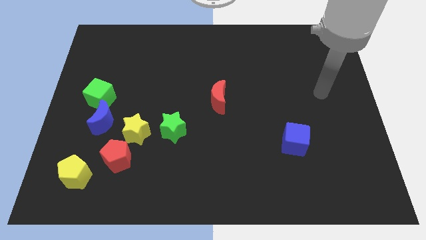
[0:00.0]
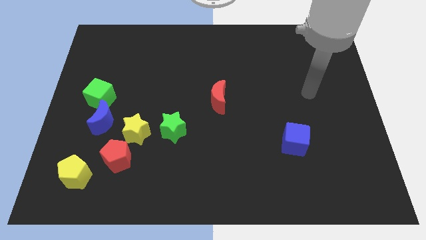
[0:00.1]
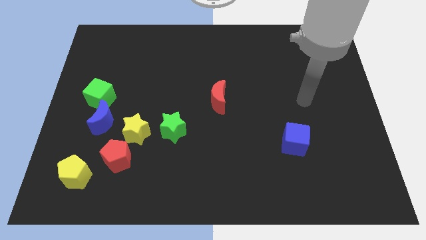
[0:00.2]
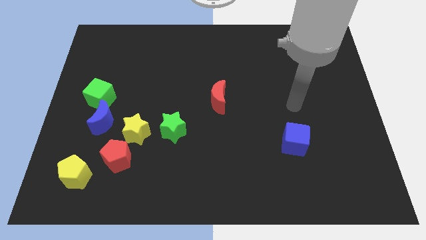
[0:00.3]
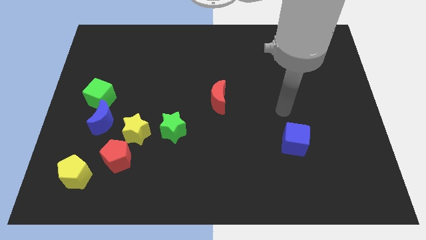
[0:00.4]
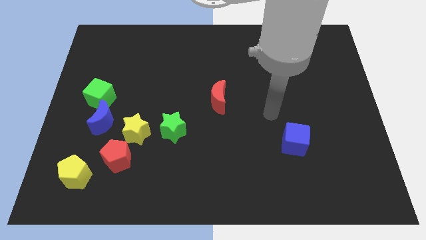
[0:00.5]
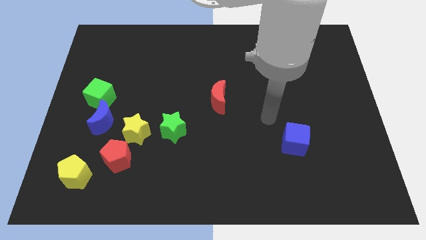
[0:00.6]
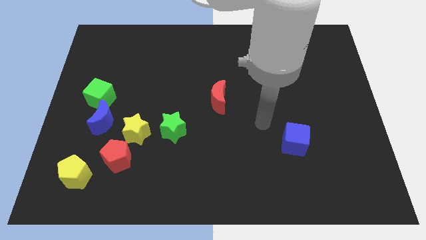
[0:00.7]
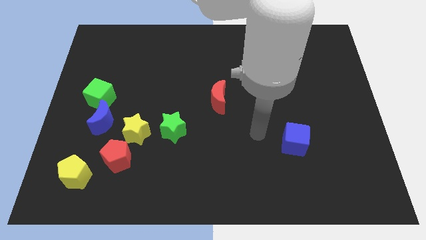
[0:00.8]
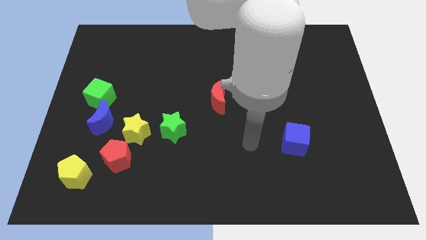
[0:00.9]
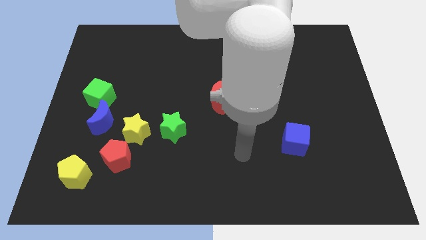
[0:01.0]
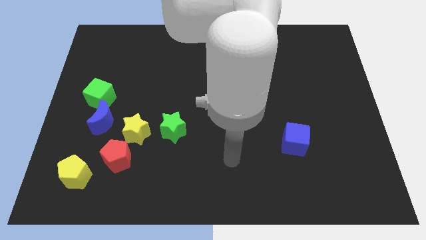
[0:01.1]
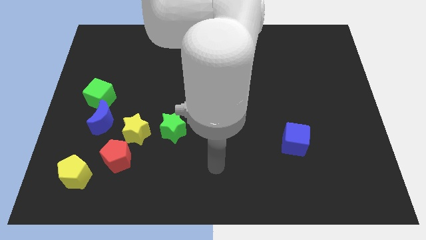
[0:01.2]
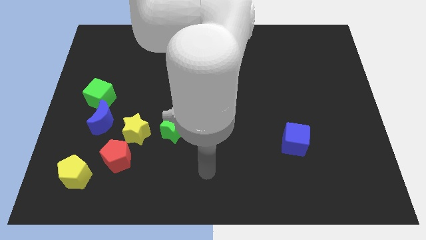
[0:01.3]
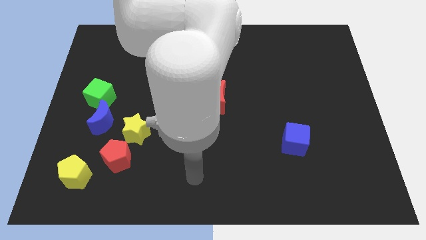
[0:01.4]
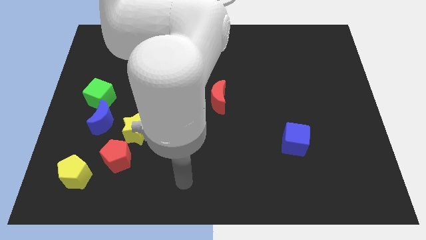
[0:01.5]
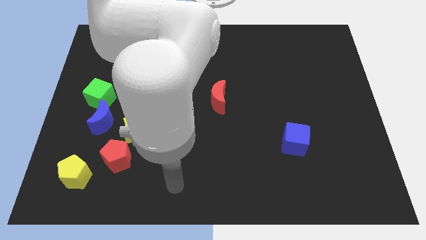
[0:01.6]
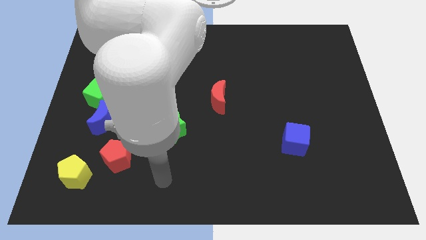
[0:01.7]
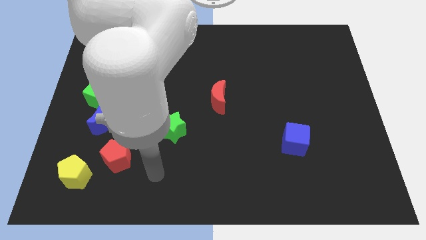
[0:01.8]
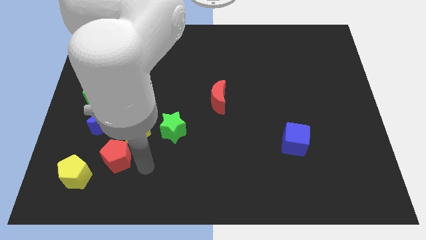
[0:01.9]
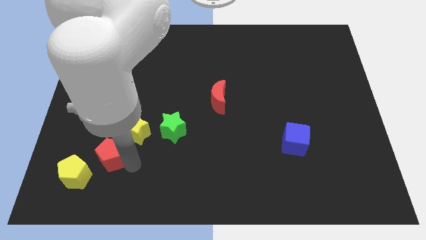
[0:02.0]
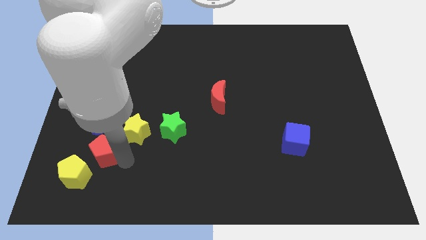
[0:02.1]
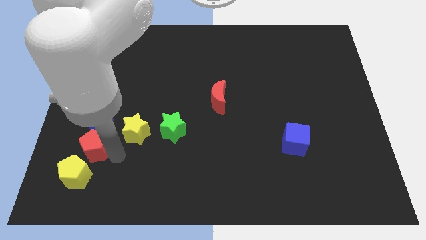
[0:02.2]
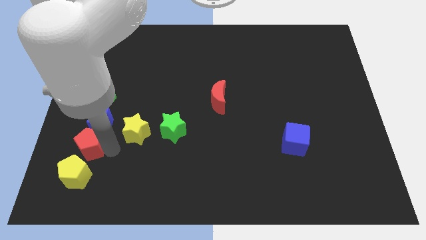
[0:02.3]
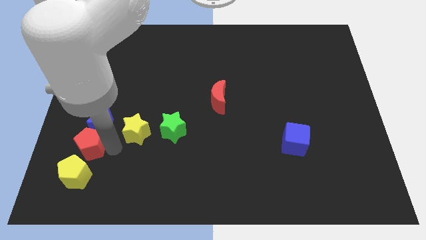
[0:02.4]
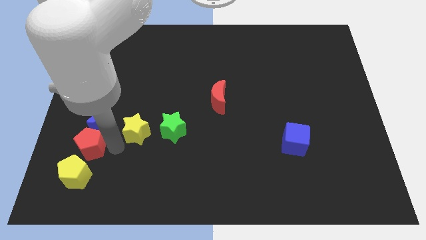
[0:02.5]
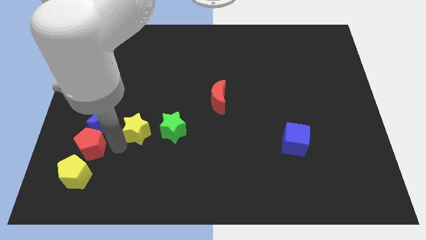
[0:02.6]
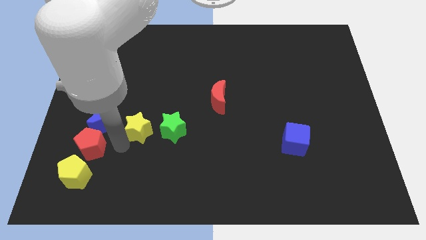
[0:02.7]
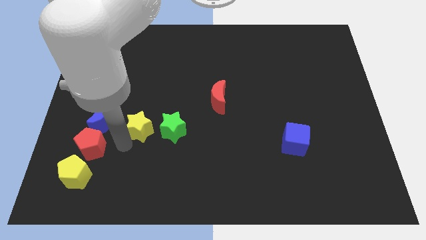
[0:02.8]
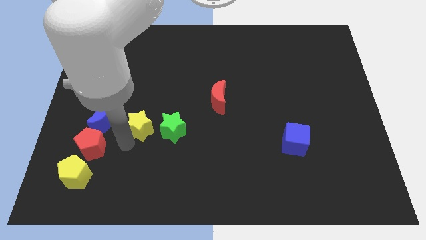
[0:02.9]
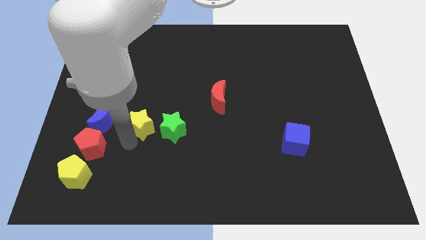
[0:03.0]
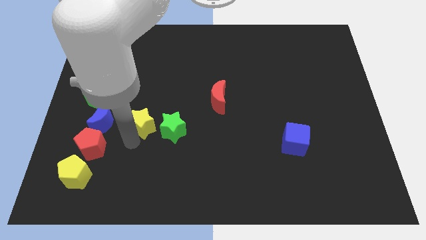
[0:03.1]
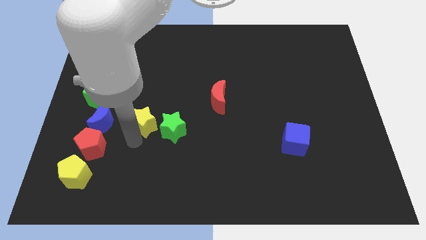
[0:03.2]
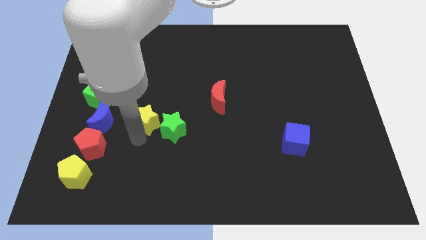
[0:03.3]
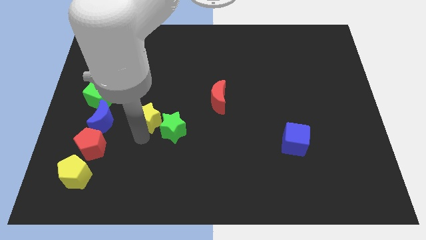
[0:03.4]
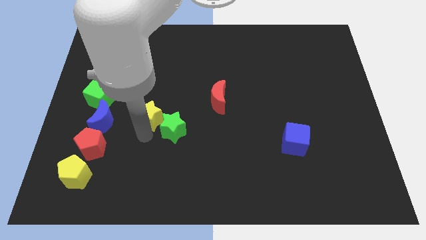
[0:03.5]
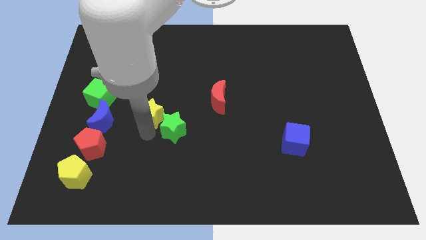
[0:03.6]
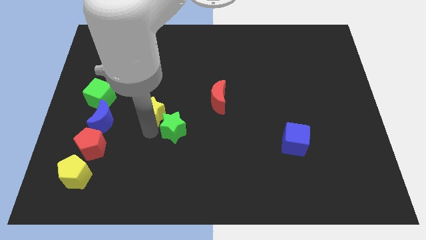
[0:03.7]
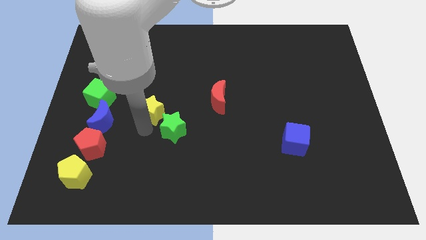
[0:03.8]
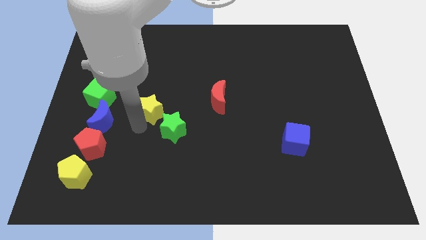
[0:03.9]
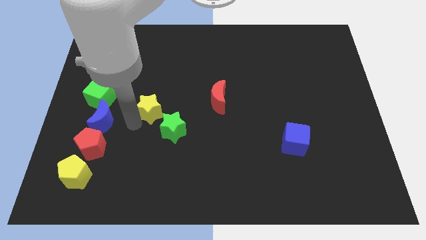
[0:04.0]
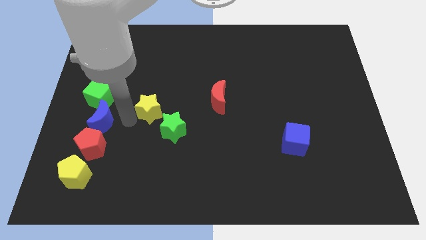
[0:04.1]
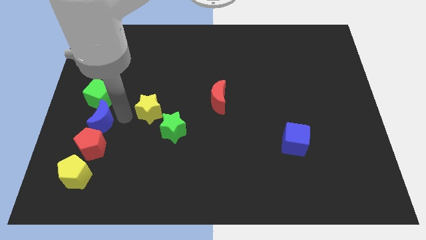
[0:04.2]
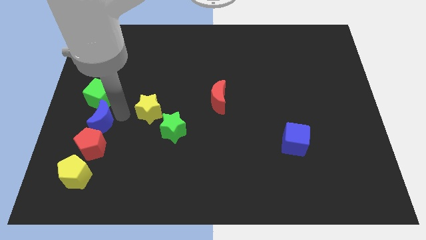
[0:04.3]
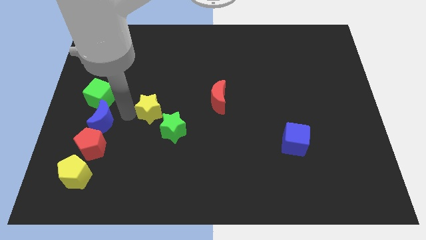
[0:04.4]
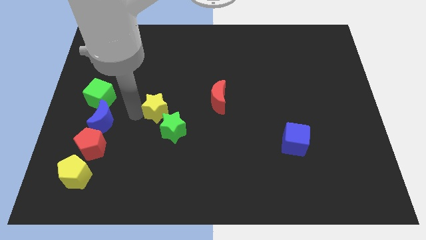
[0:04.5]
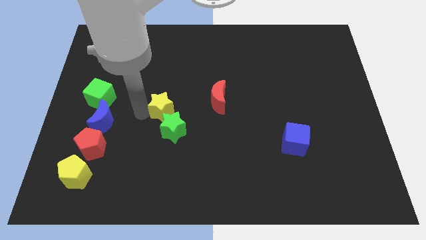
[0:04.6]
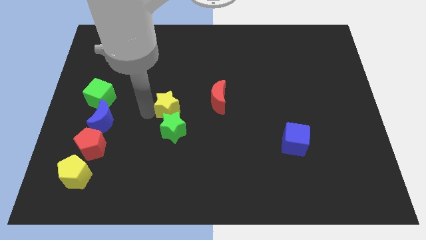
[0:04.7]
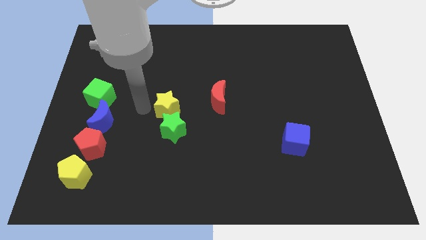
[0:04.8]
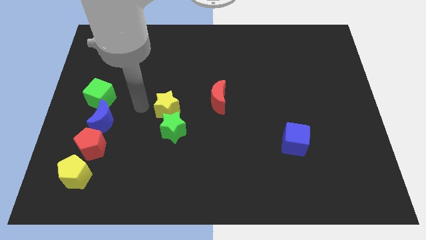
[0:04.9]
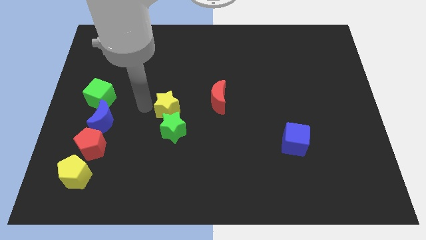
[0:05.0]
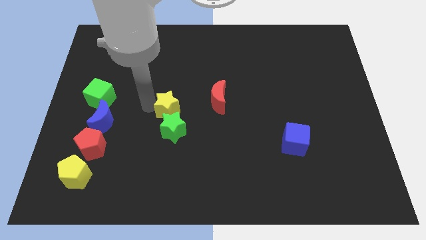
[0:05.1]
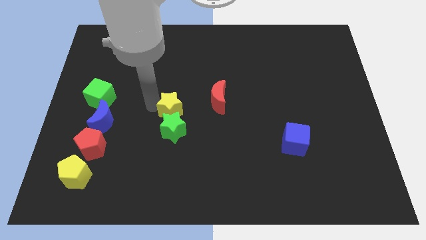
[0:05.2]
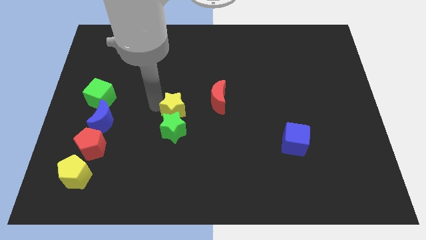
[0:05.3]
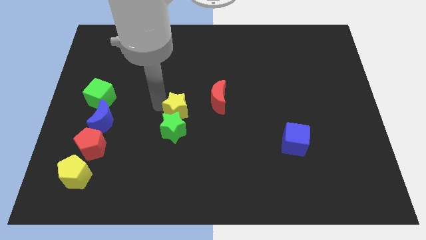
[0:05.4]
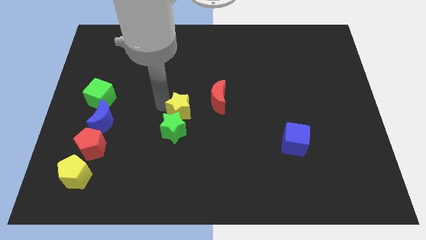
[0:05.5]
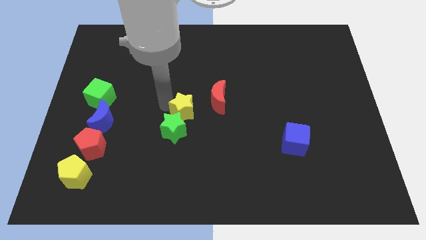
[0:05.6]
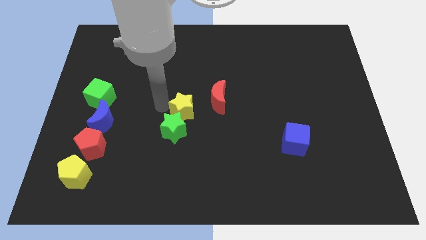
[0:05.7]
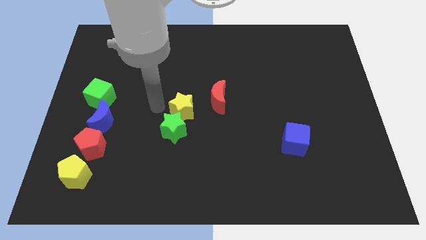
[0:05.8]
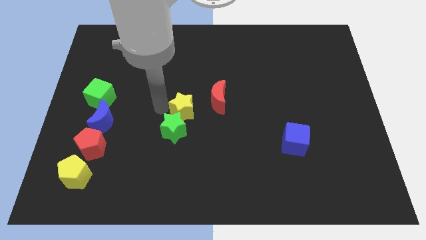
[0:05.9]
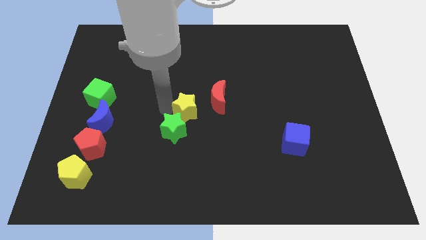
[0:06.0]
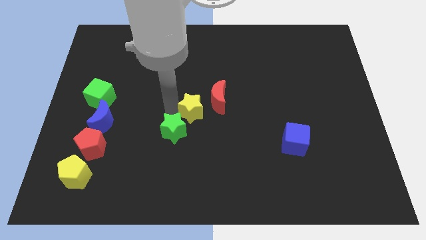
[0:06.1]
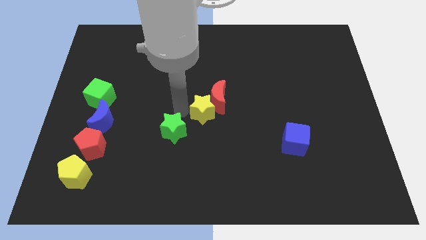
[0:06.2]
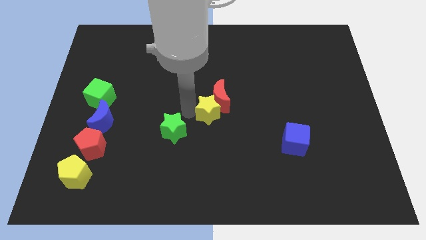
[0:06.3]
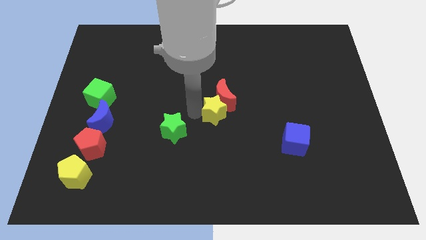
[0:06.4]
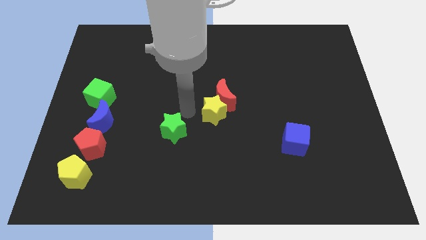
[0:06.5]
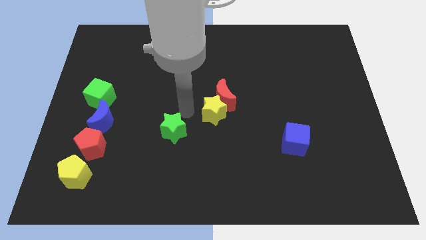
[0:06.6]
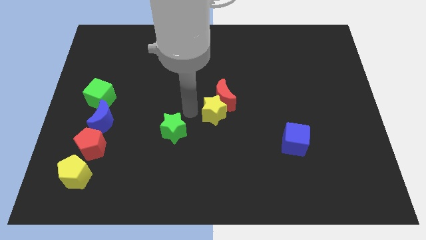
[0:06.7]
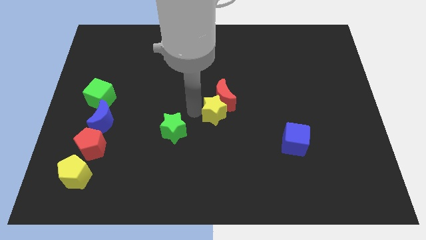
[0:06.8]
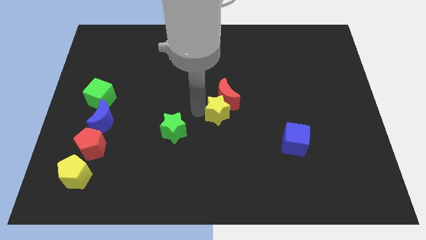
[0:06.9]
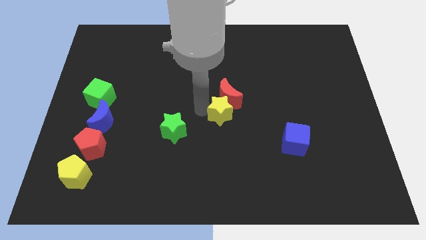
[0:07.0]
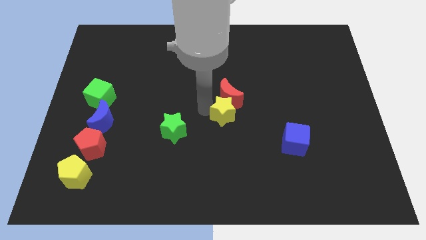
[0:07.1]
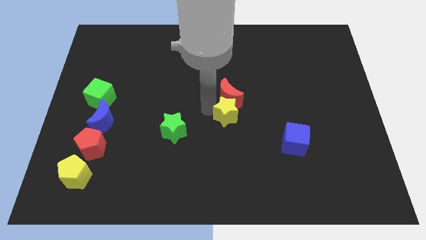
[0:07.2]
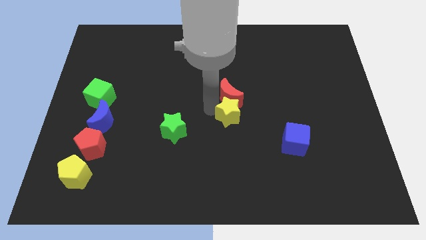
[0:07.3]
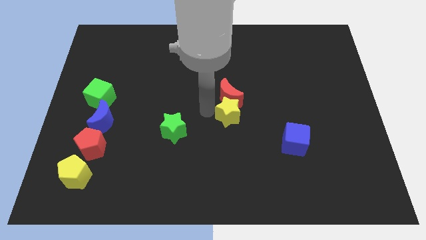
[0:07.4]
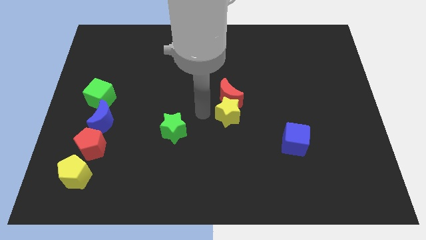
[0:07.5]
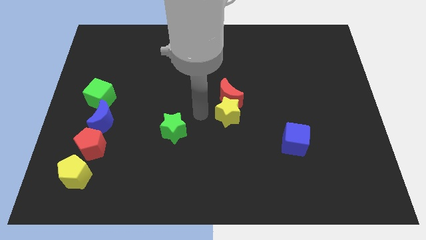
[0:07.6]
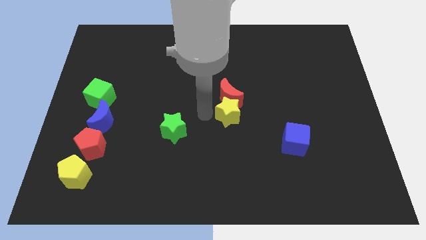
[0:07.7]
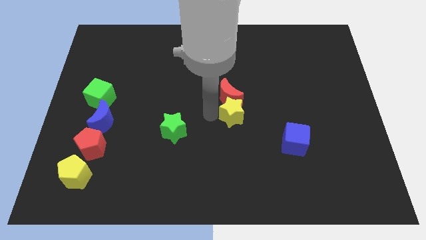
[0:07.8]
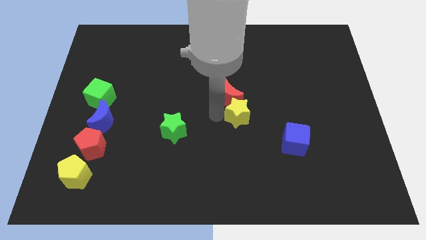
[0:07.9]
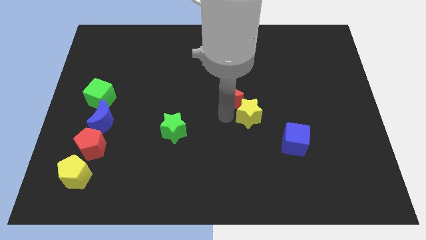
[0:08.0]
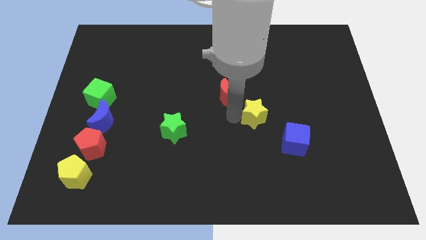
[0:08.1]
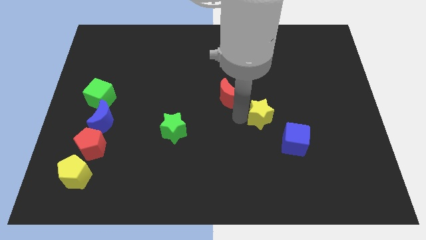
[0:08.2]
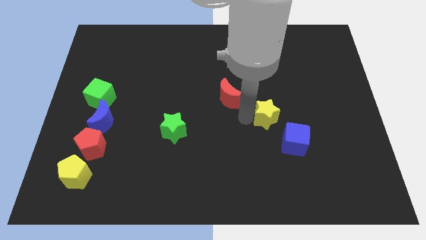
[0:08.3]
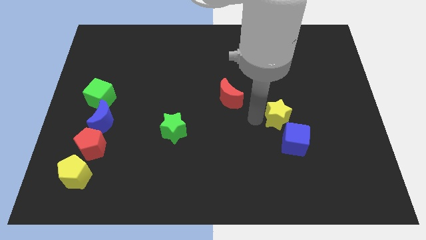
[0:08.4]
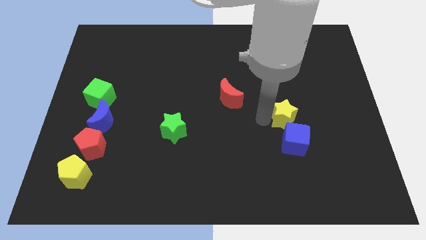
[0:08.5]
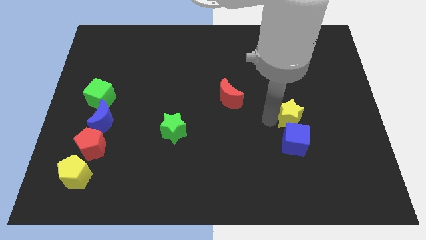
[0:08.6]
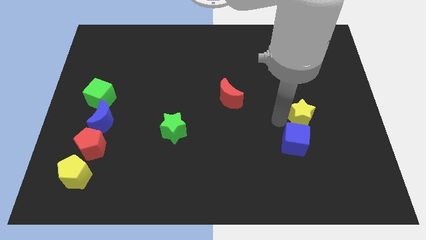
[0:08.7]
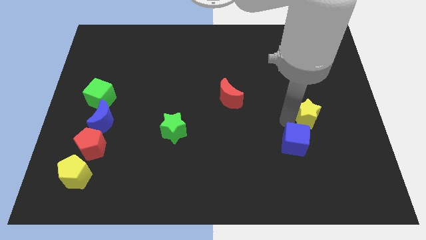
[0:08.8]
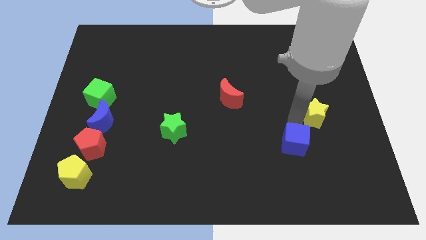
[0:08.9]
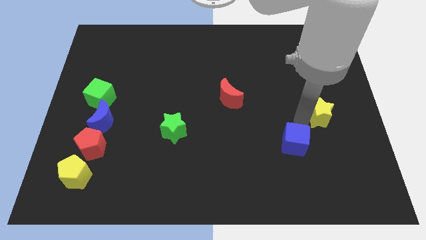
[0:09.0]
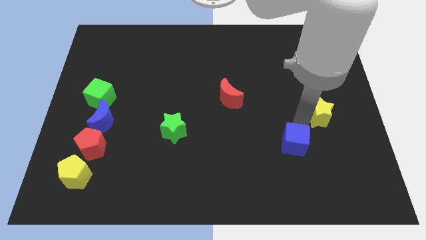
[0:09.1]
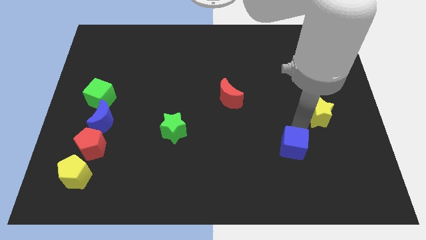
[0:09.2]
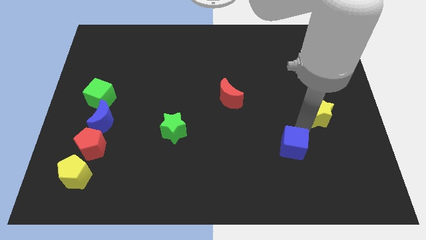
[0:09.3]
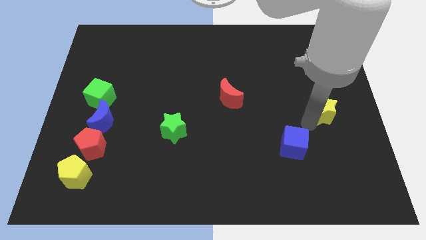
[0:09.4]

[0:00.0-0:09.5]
push the yellow star to the right side
